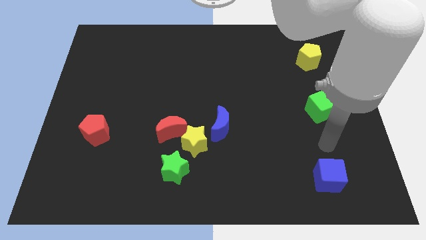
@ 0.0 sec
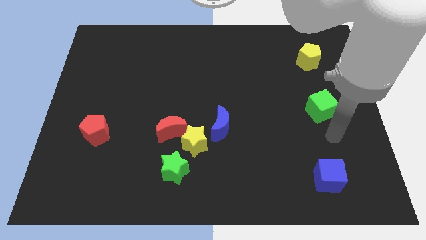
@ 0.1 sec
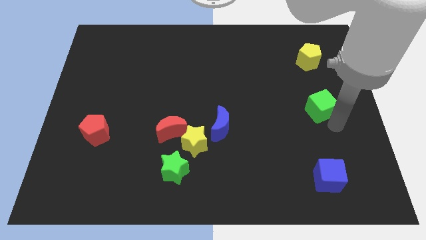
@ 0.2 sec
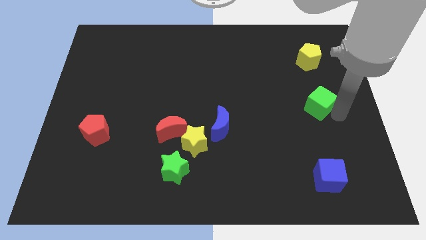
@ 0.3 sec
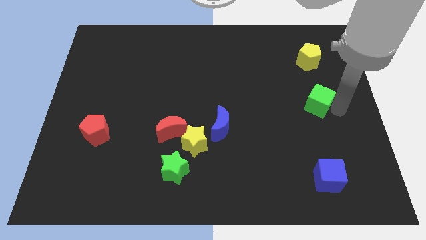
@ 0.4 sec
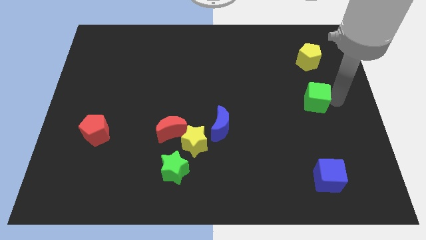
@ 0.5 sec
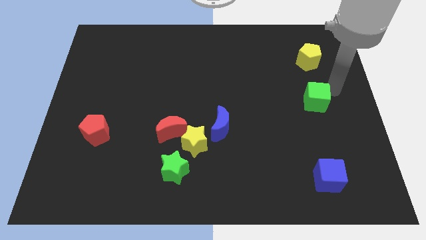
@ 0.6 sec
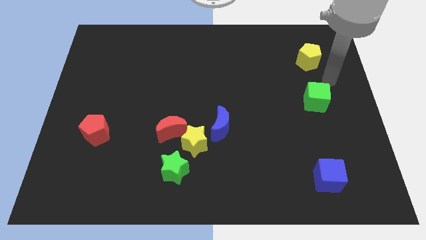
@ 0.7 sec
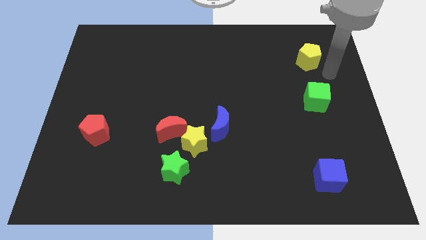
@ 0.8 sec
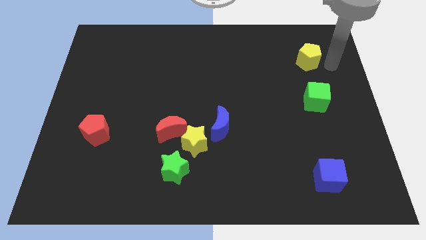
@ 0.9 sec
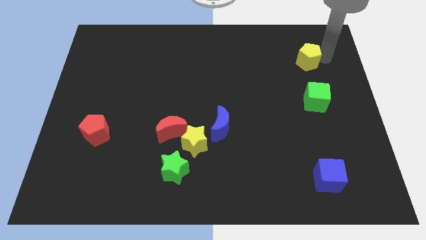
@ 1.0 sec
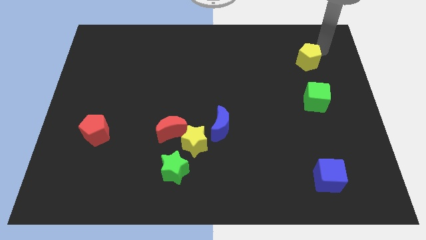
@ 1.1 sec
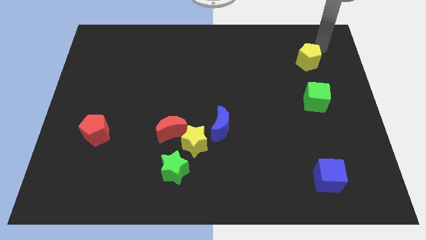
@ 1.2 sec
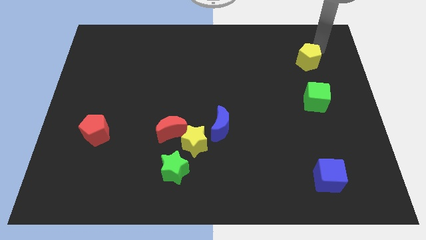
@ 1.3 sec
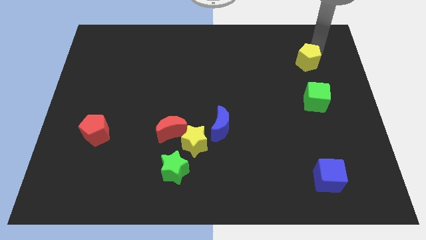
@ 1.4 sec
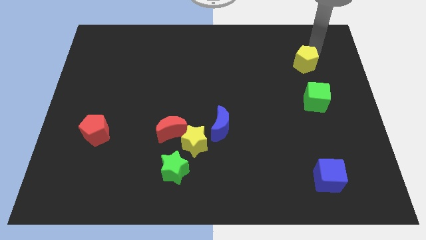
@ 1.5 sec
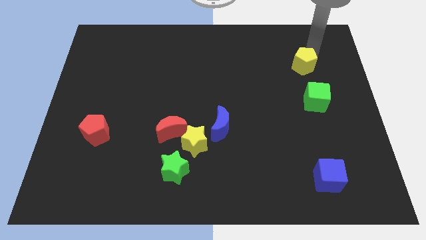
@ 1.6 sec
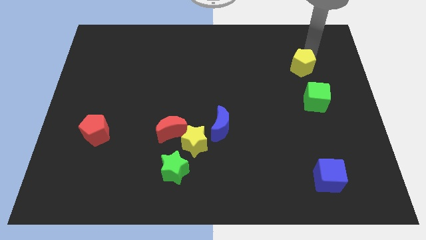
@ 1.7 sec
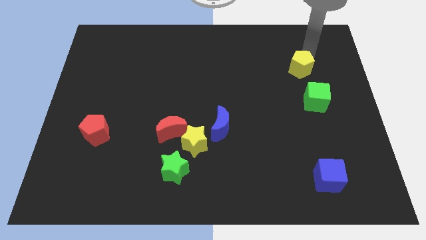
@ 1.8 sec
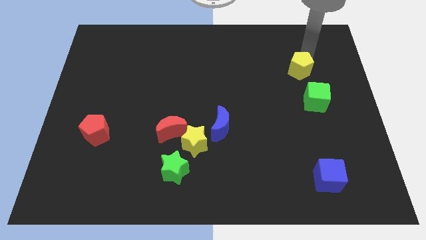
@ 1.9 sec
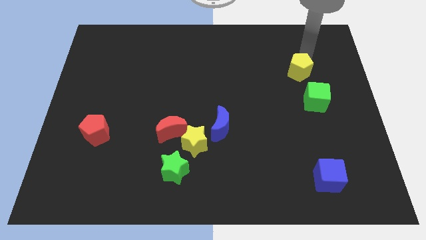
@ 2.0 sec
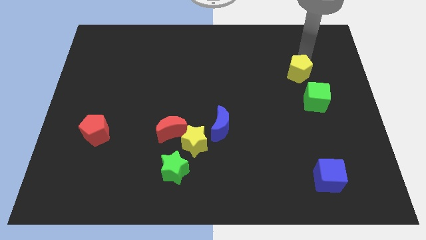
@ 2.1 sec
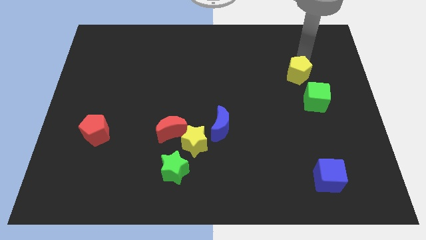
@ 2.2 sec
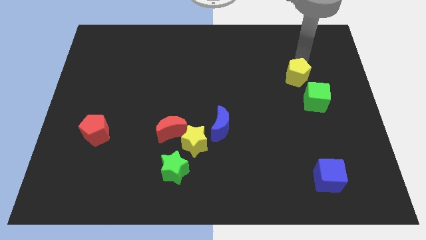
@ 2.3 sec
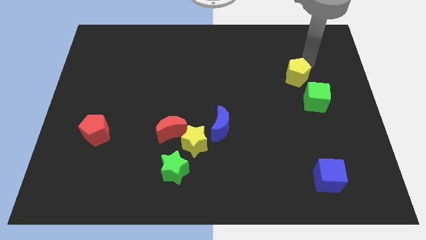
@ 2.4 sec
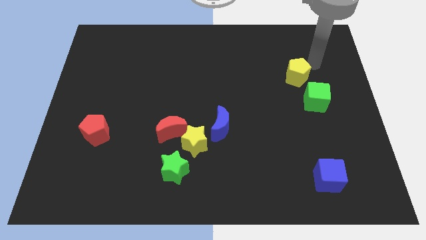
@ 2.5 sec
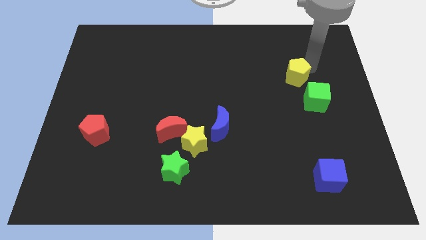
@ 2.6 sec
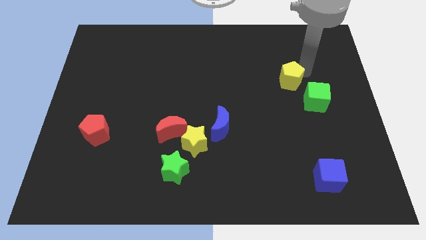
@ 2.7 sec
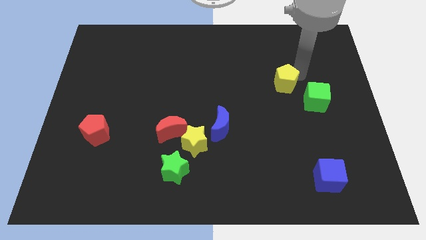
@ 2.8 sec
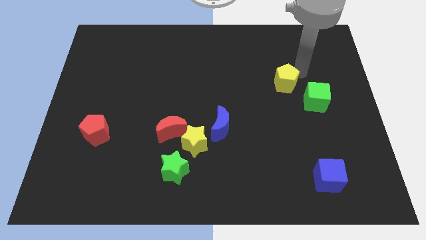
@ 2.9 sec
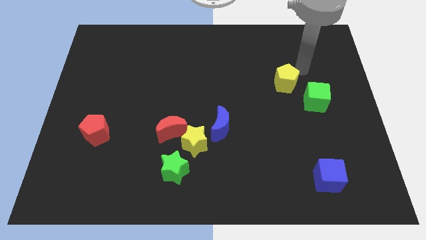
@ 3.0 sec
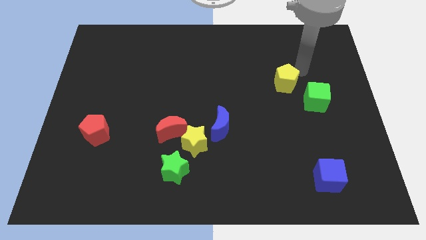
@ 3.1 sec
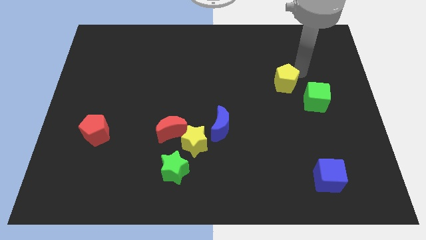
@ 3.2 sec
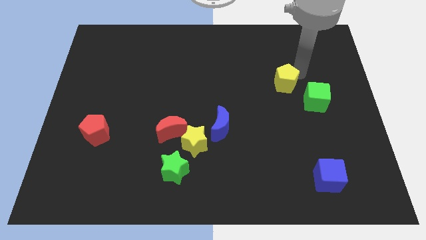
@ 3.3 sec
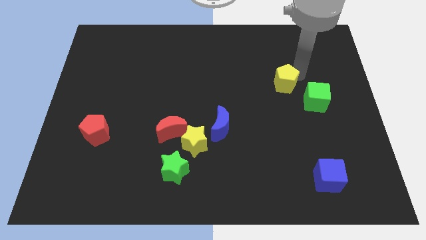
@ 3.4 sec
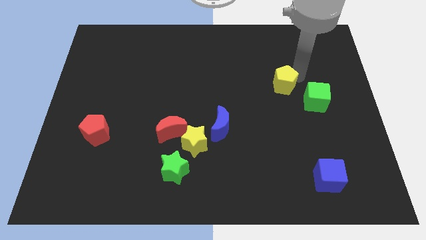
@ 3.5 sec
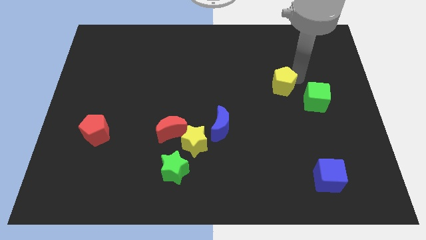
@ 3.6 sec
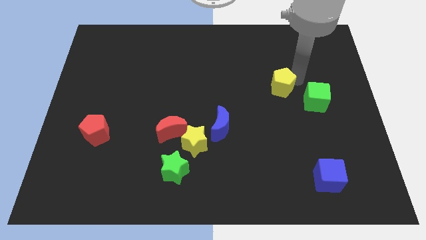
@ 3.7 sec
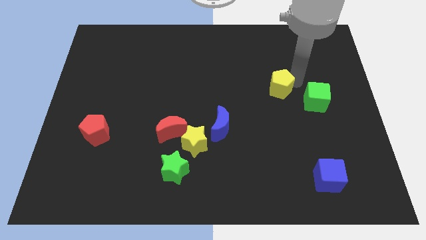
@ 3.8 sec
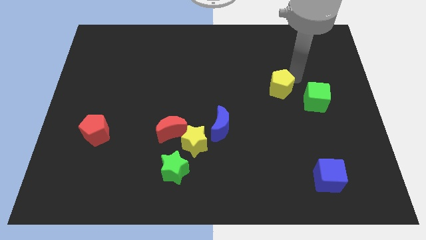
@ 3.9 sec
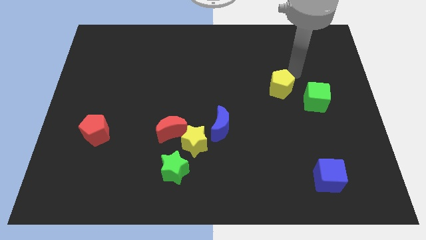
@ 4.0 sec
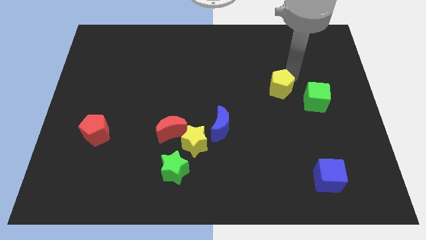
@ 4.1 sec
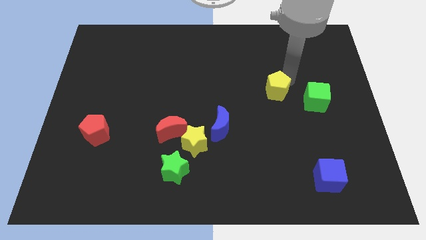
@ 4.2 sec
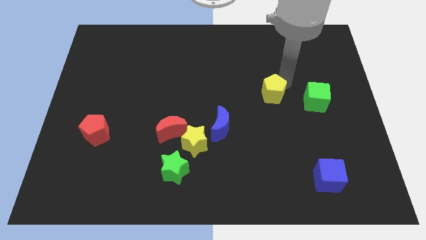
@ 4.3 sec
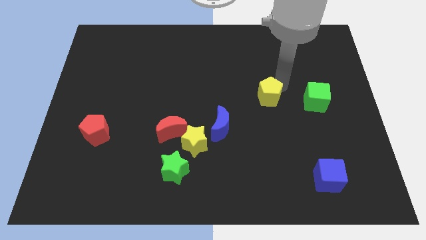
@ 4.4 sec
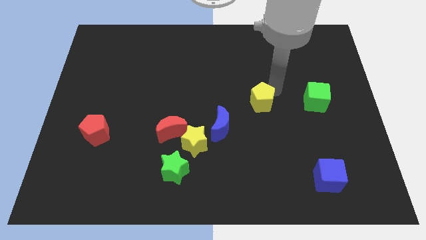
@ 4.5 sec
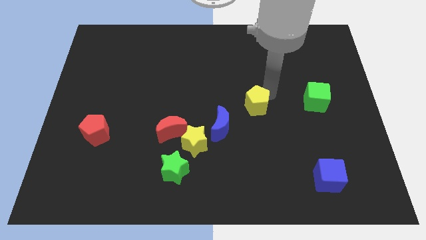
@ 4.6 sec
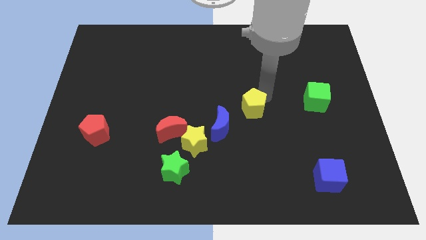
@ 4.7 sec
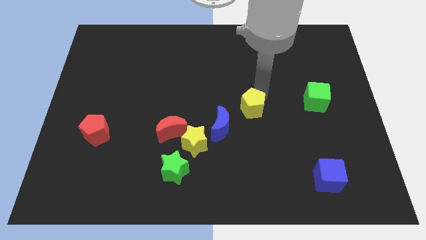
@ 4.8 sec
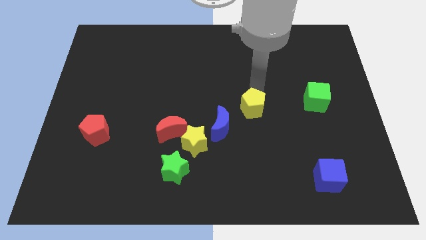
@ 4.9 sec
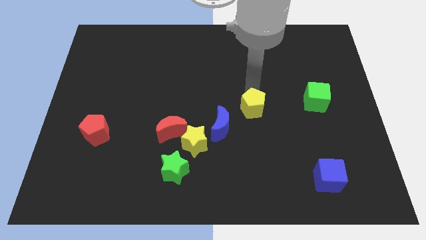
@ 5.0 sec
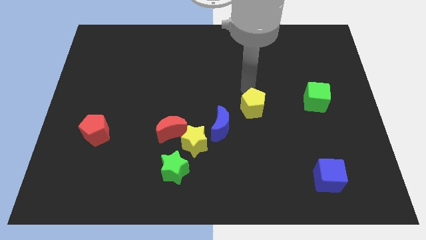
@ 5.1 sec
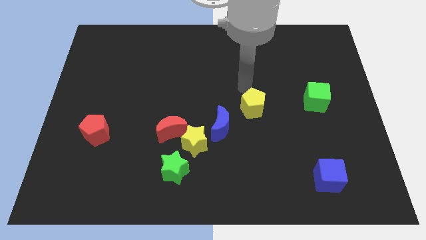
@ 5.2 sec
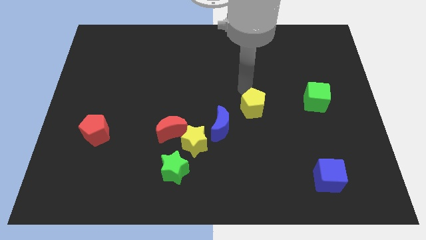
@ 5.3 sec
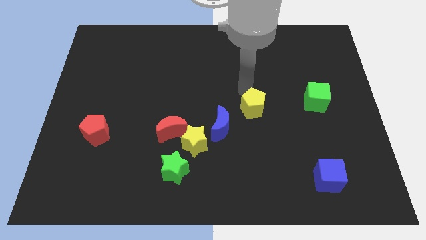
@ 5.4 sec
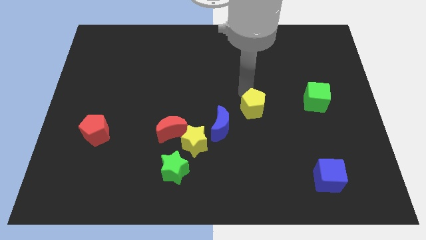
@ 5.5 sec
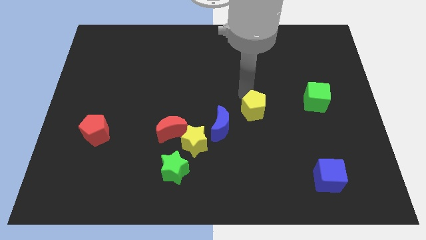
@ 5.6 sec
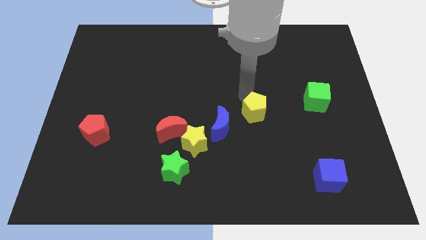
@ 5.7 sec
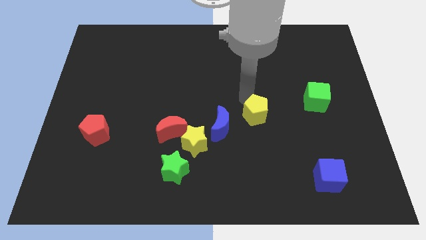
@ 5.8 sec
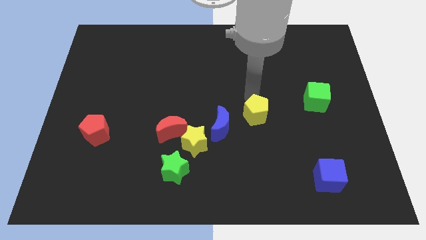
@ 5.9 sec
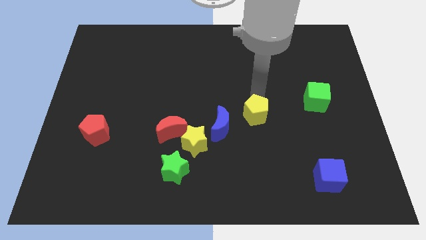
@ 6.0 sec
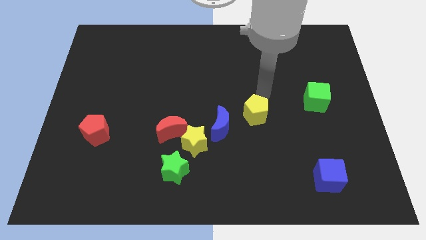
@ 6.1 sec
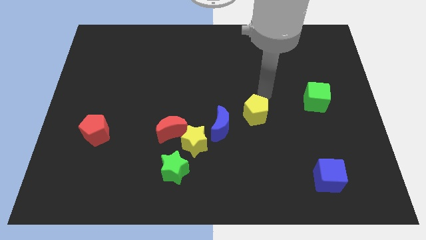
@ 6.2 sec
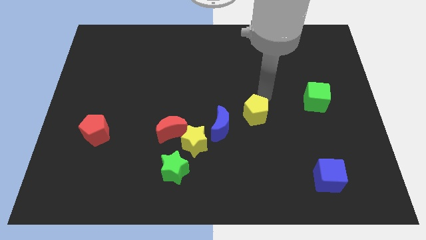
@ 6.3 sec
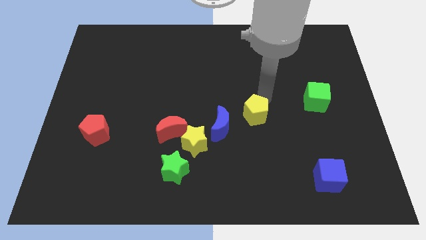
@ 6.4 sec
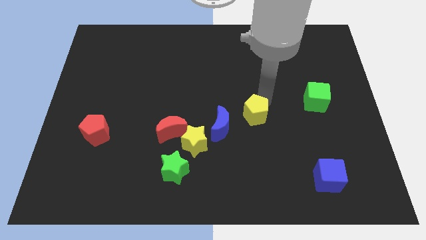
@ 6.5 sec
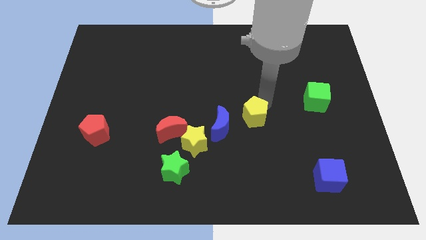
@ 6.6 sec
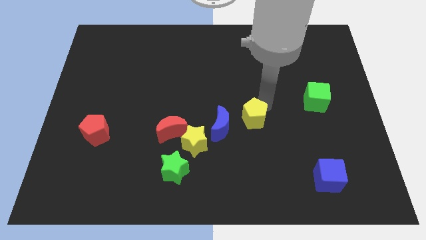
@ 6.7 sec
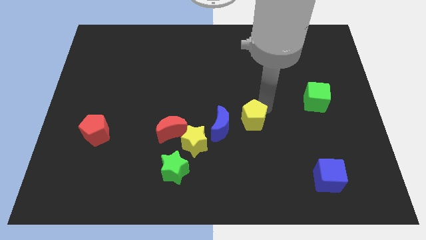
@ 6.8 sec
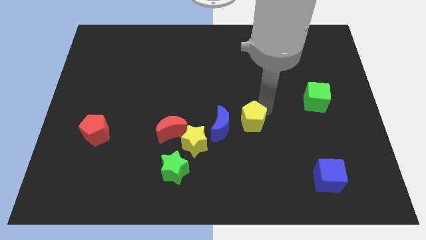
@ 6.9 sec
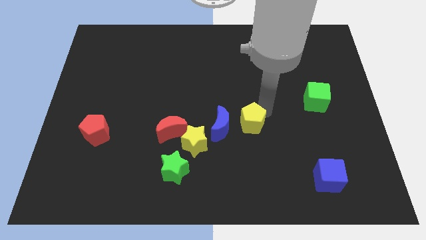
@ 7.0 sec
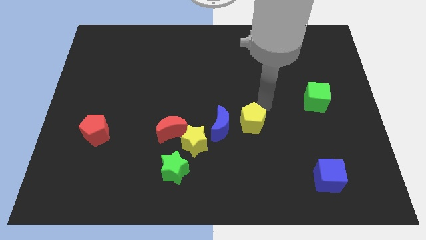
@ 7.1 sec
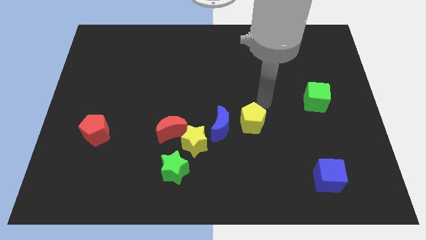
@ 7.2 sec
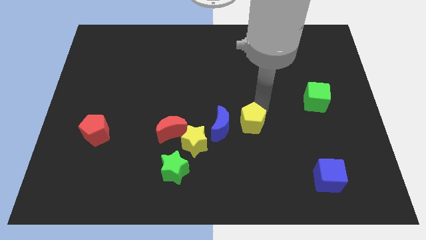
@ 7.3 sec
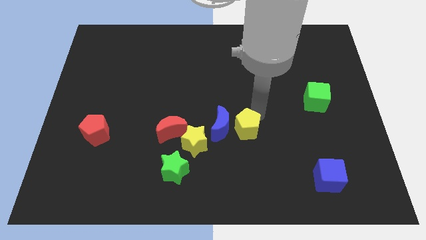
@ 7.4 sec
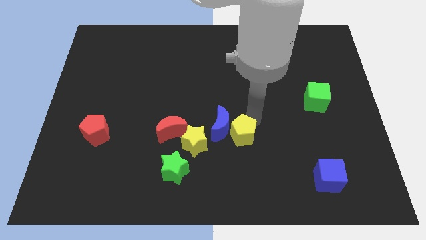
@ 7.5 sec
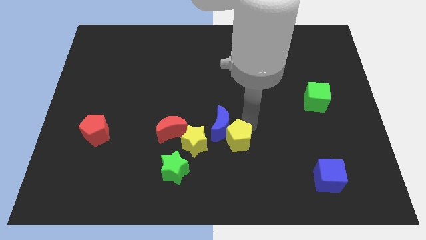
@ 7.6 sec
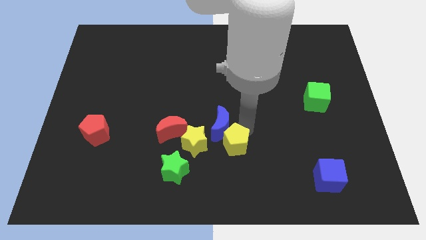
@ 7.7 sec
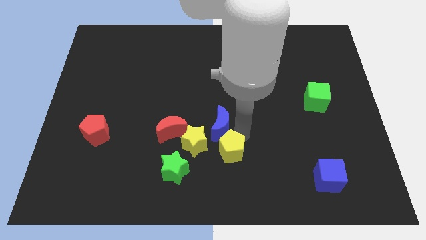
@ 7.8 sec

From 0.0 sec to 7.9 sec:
move the yellow pentagon right of the green star

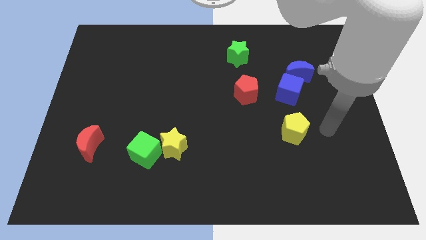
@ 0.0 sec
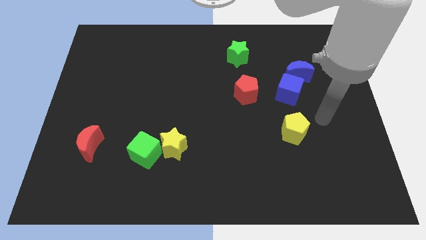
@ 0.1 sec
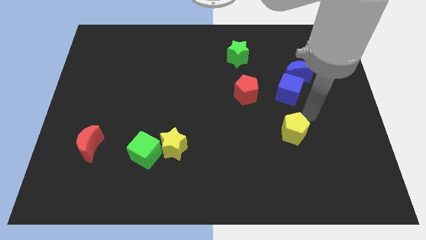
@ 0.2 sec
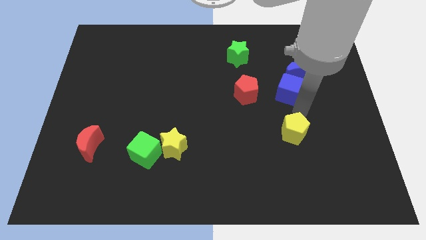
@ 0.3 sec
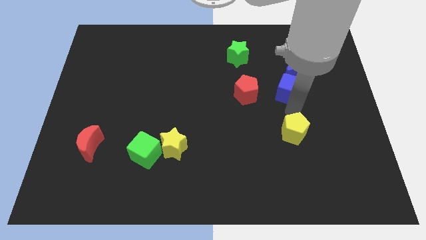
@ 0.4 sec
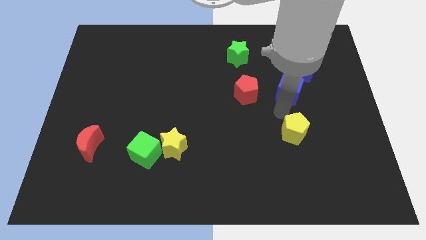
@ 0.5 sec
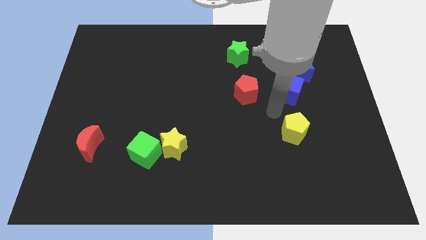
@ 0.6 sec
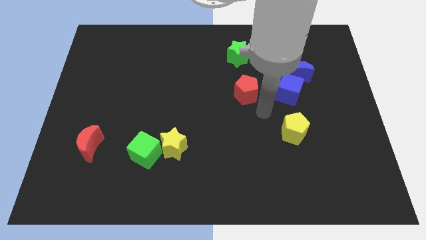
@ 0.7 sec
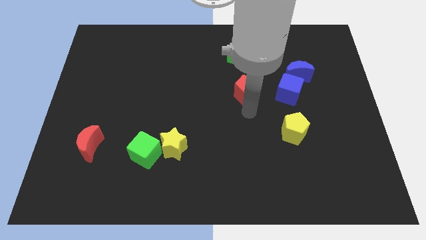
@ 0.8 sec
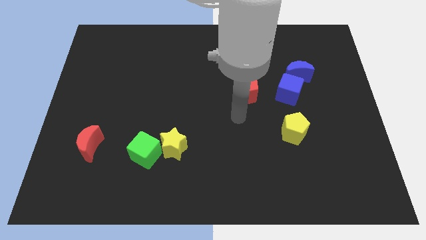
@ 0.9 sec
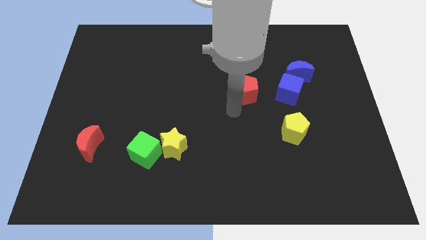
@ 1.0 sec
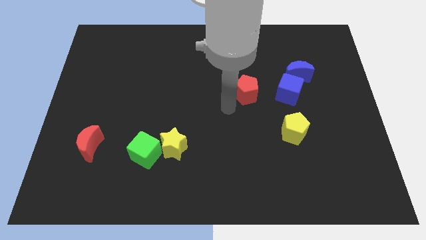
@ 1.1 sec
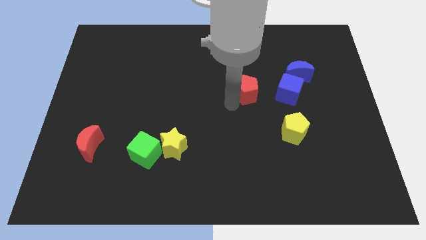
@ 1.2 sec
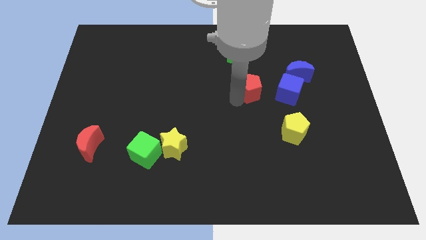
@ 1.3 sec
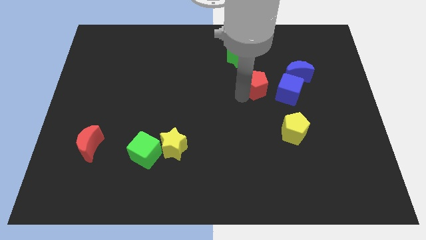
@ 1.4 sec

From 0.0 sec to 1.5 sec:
push the red pentagon diagonally up and to the left of the blue cube
